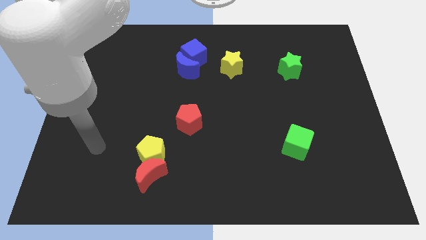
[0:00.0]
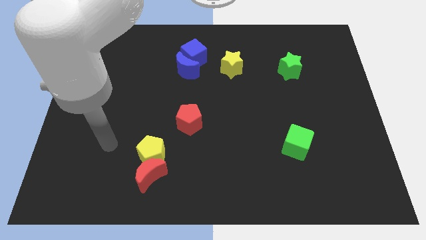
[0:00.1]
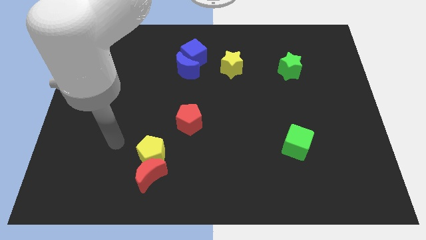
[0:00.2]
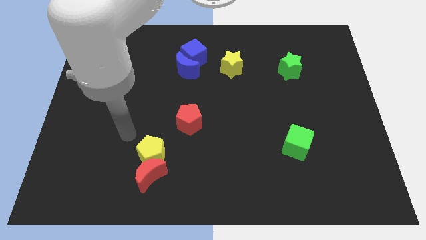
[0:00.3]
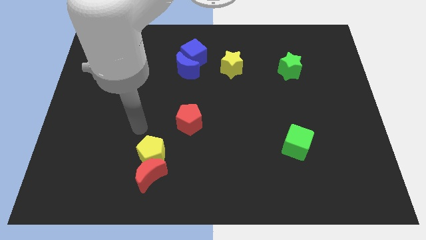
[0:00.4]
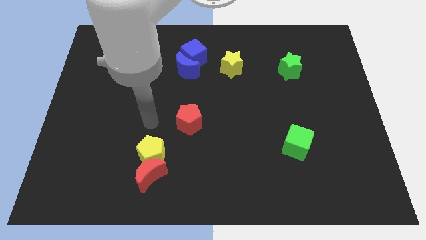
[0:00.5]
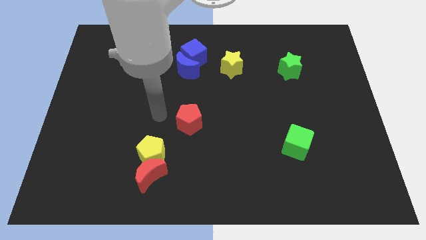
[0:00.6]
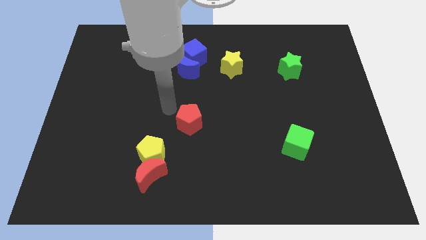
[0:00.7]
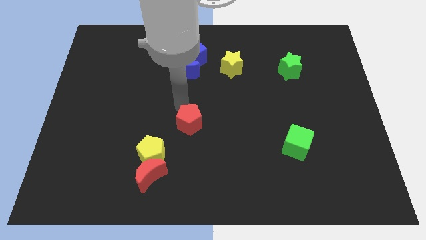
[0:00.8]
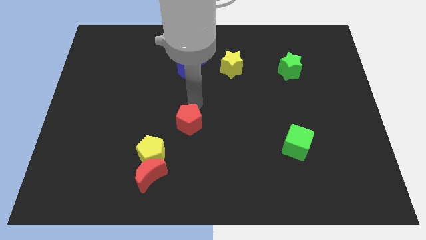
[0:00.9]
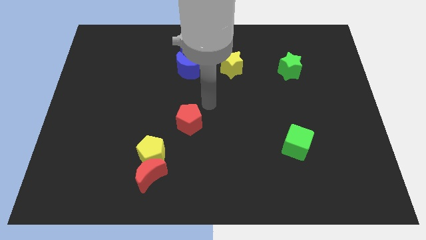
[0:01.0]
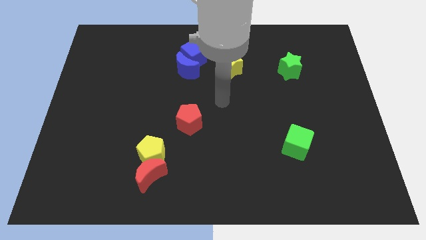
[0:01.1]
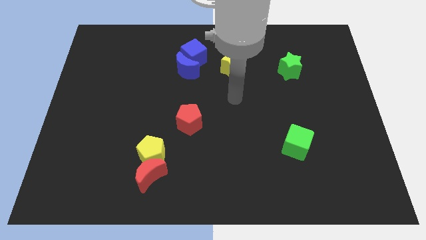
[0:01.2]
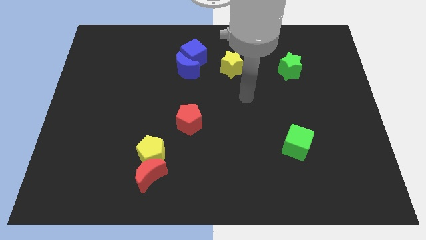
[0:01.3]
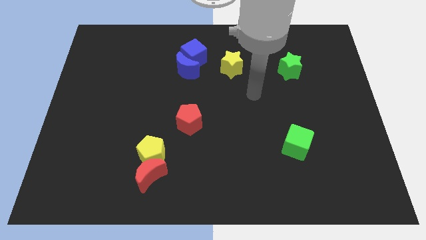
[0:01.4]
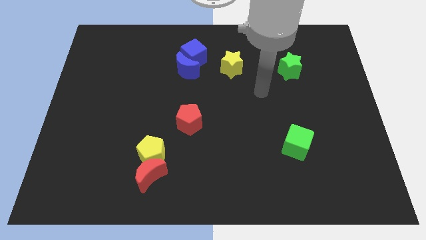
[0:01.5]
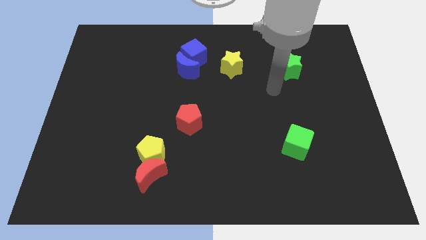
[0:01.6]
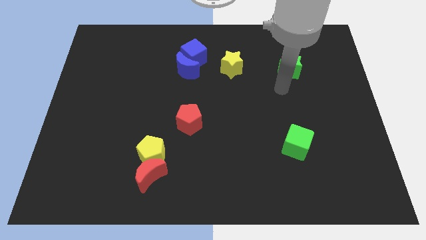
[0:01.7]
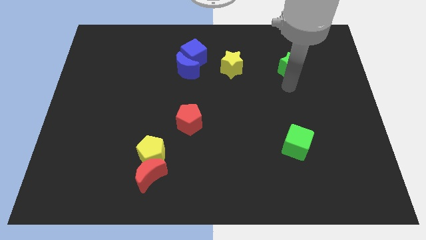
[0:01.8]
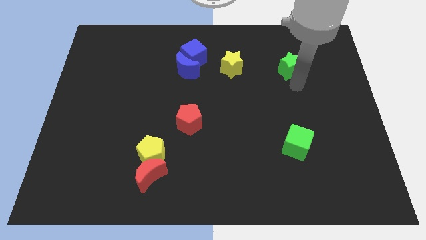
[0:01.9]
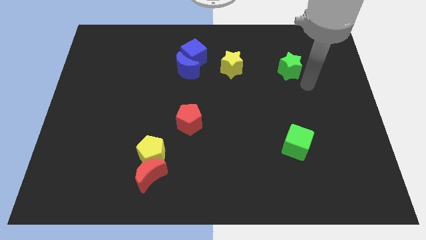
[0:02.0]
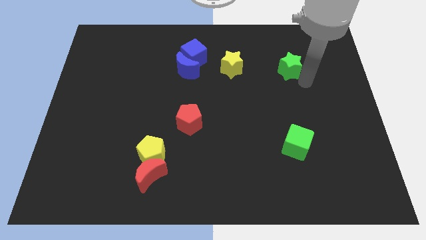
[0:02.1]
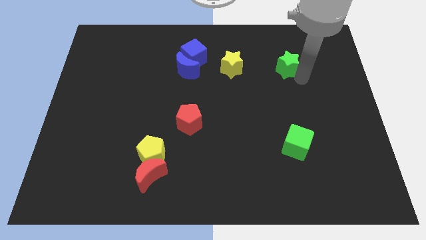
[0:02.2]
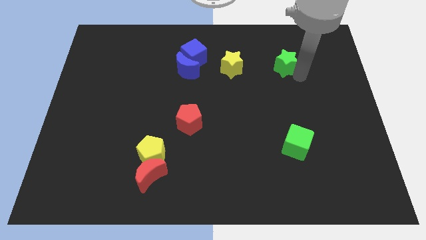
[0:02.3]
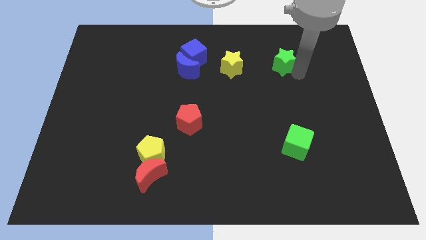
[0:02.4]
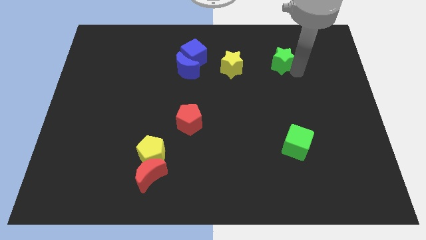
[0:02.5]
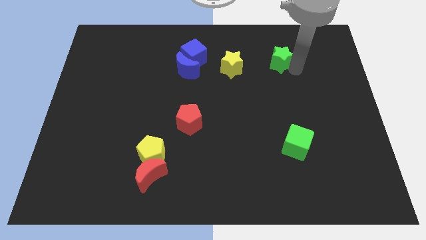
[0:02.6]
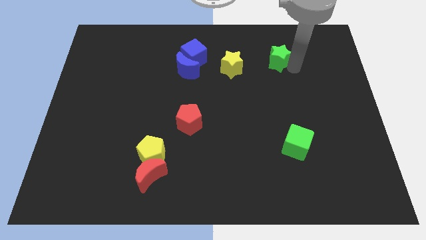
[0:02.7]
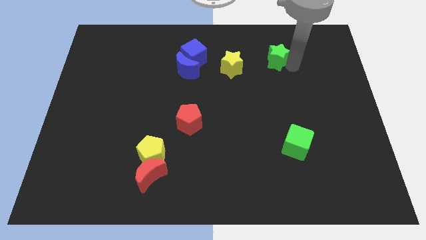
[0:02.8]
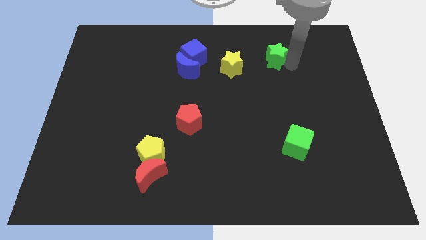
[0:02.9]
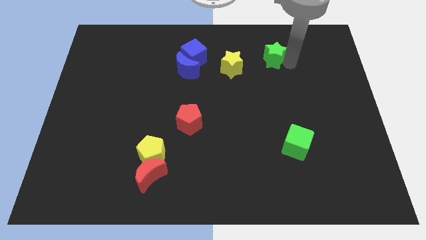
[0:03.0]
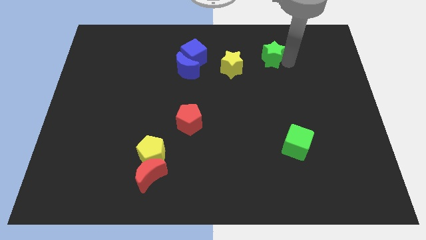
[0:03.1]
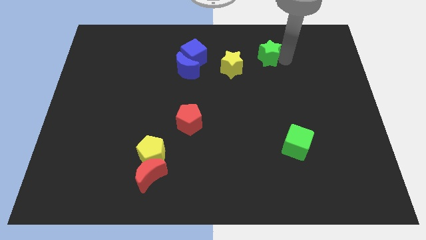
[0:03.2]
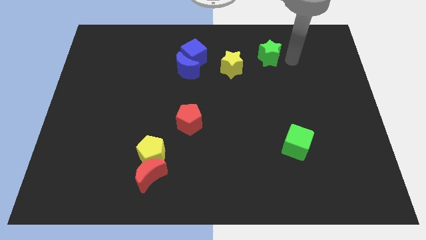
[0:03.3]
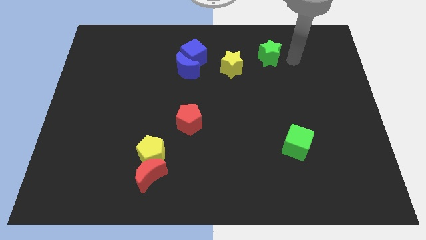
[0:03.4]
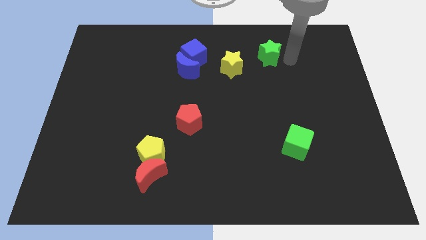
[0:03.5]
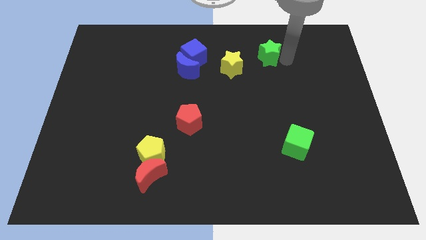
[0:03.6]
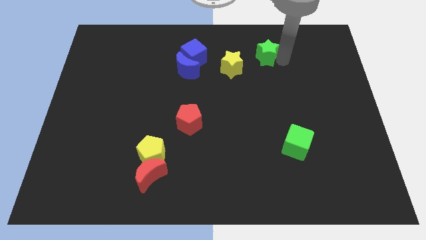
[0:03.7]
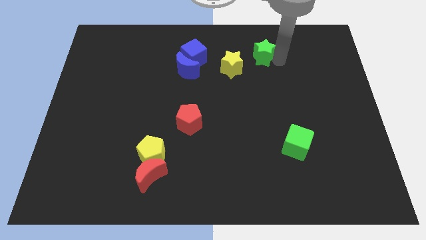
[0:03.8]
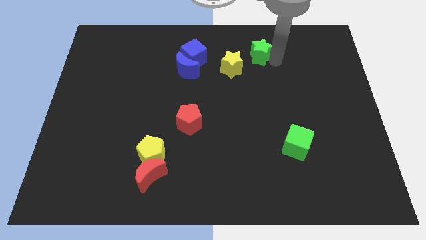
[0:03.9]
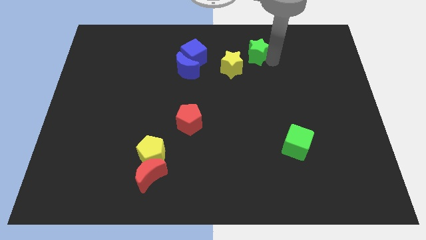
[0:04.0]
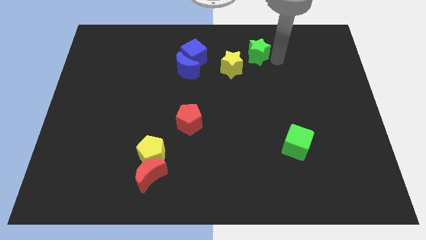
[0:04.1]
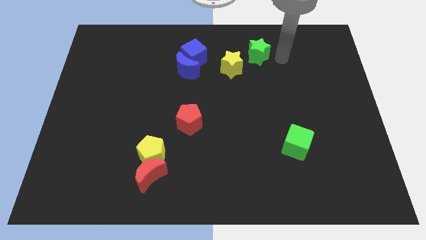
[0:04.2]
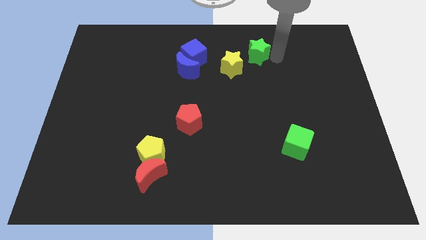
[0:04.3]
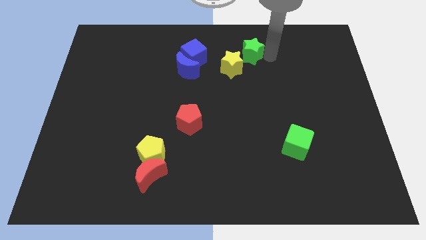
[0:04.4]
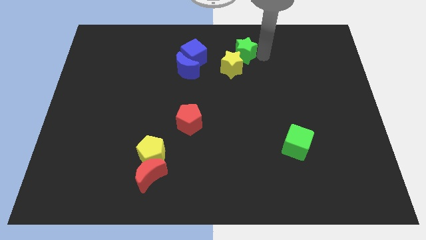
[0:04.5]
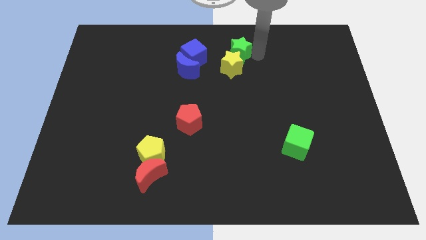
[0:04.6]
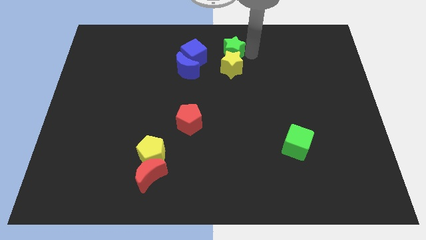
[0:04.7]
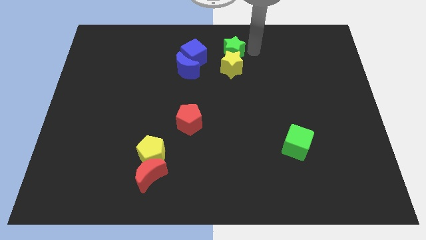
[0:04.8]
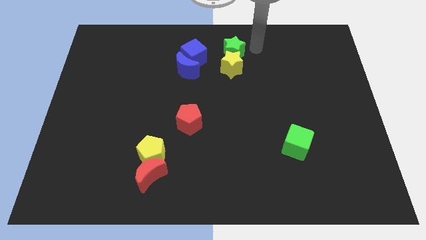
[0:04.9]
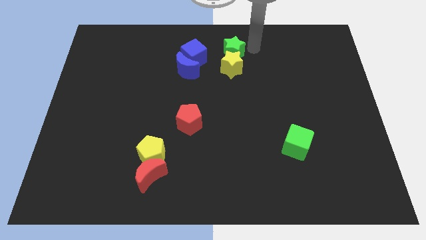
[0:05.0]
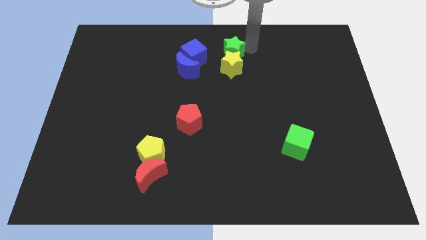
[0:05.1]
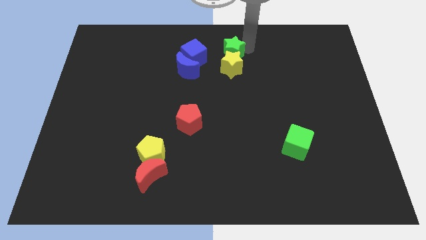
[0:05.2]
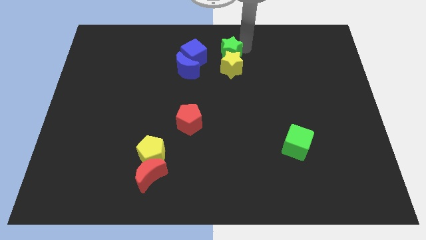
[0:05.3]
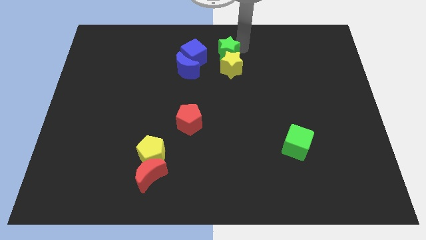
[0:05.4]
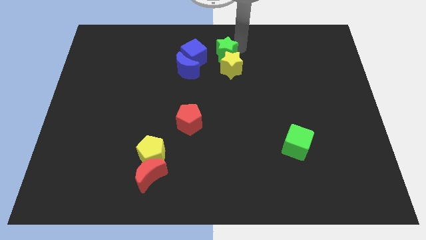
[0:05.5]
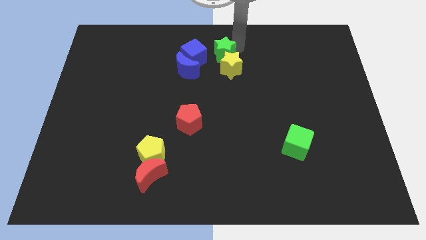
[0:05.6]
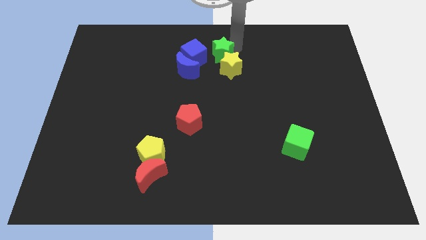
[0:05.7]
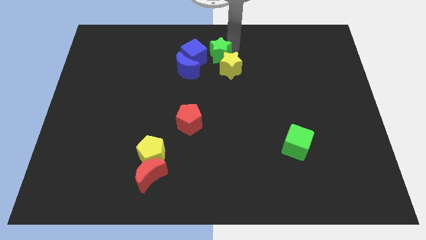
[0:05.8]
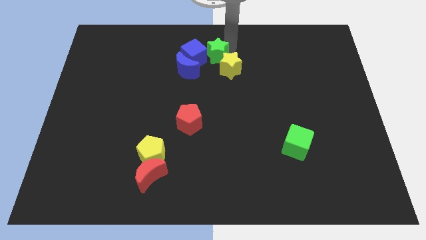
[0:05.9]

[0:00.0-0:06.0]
slide the green star next to the blue cube

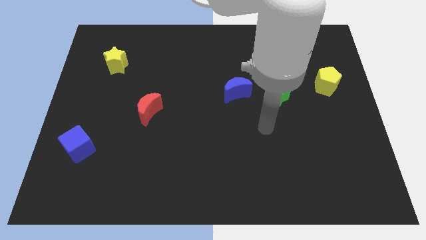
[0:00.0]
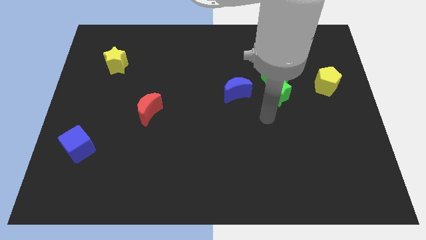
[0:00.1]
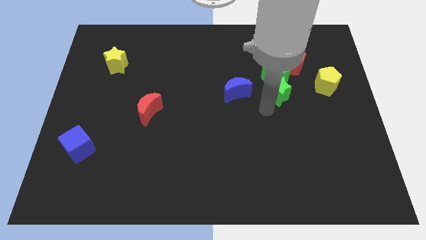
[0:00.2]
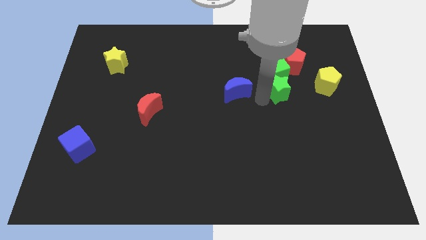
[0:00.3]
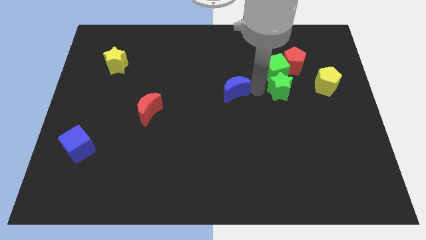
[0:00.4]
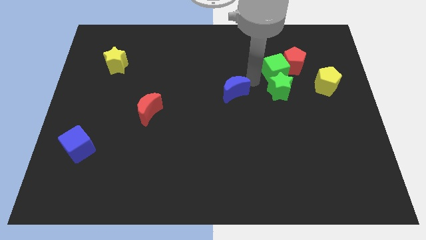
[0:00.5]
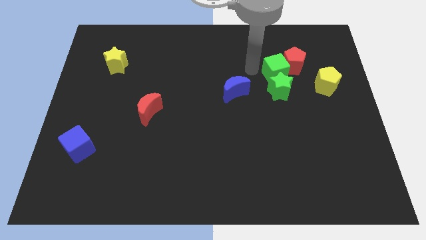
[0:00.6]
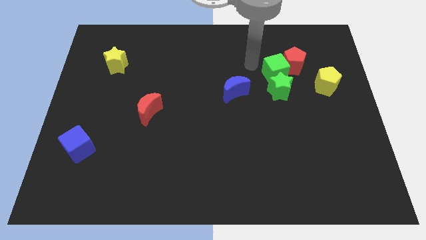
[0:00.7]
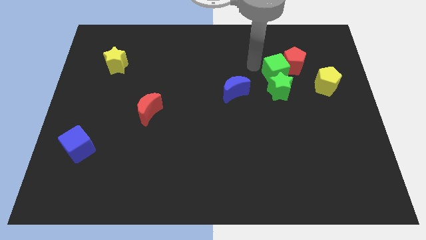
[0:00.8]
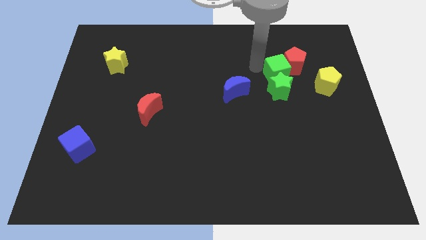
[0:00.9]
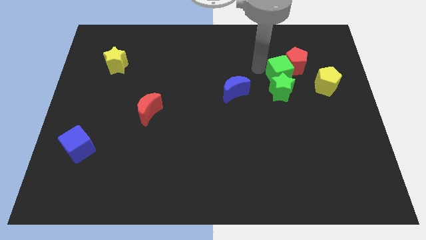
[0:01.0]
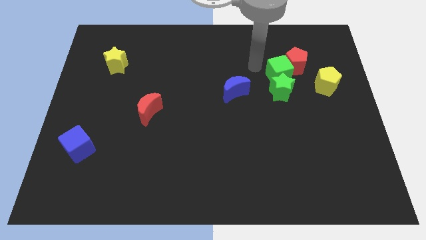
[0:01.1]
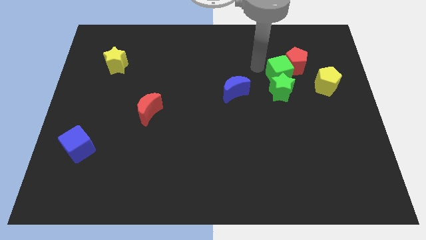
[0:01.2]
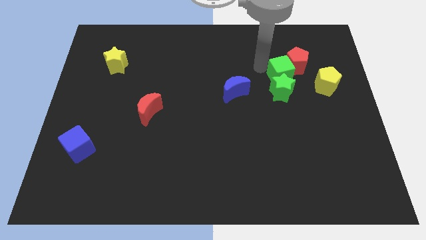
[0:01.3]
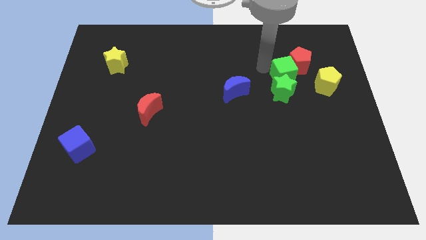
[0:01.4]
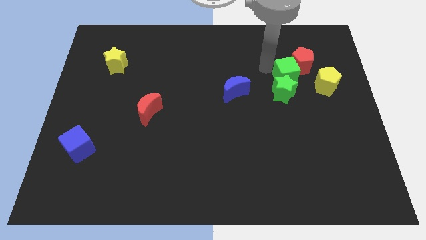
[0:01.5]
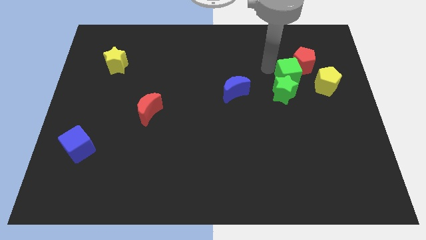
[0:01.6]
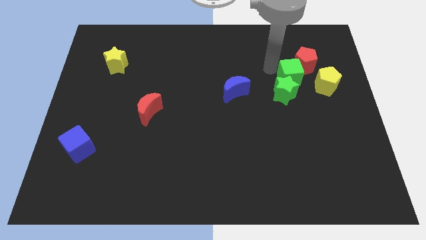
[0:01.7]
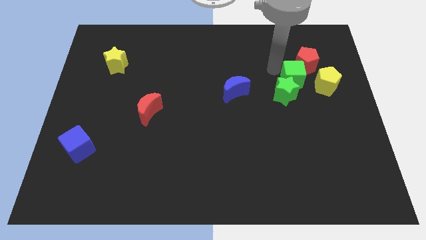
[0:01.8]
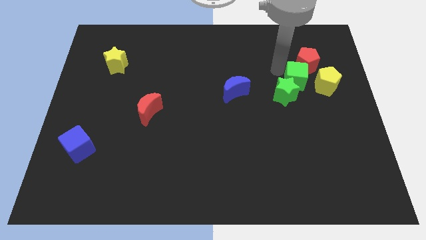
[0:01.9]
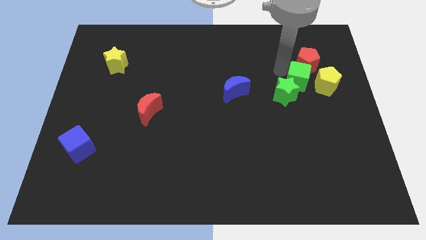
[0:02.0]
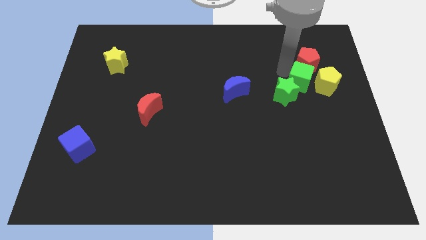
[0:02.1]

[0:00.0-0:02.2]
push the green cube close to the yellow pentagon
